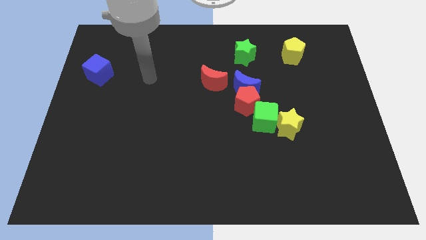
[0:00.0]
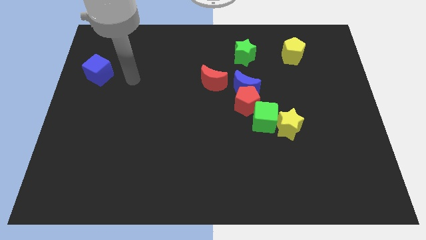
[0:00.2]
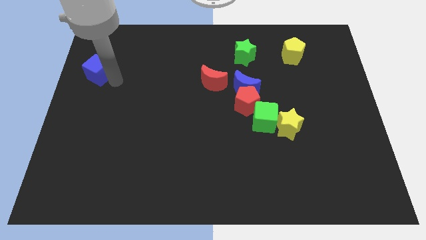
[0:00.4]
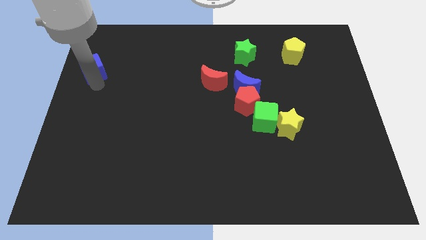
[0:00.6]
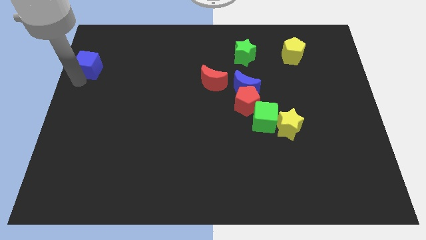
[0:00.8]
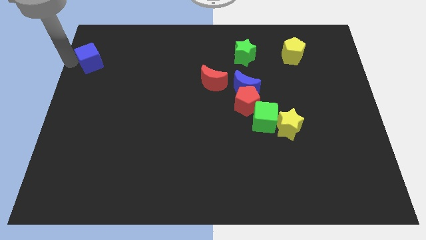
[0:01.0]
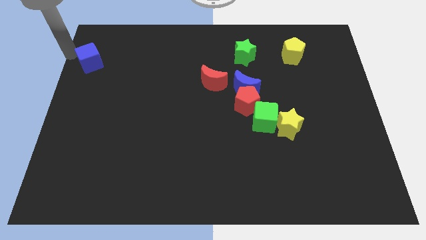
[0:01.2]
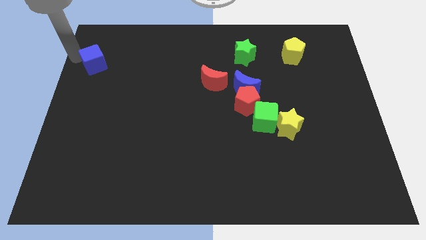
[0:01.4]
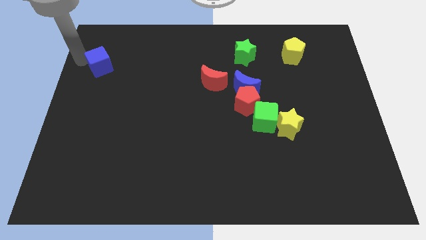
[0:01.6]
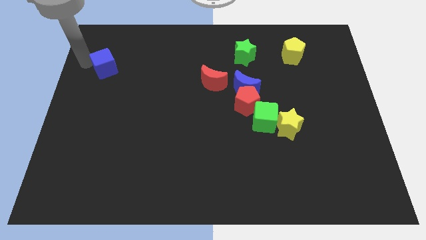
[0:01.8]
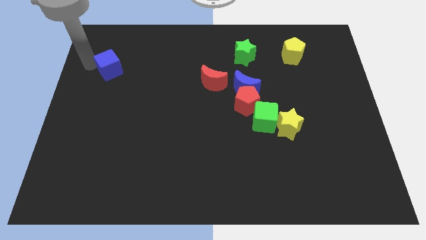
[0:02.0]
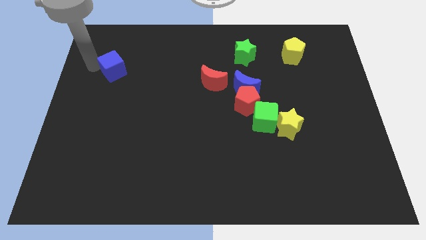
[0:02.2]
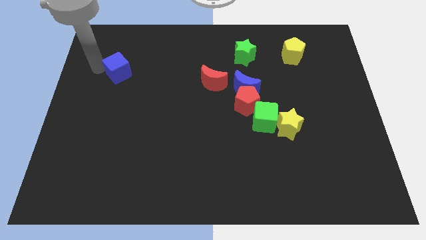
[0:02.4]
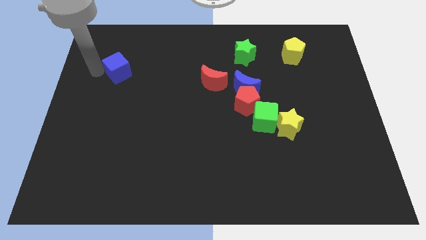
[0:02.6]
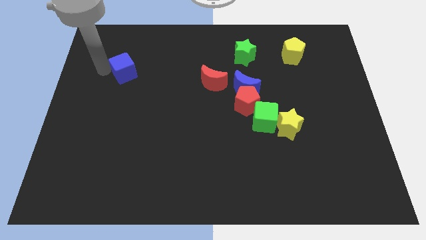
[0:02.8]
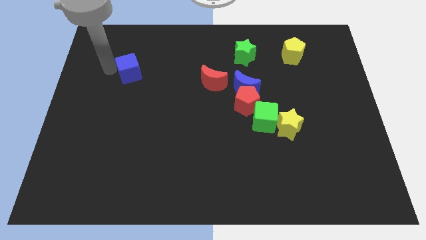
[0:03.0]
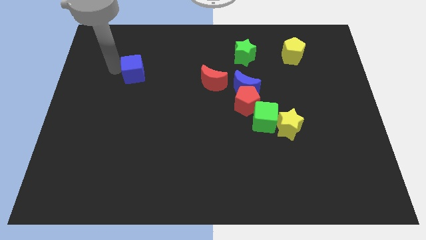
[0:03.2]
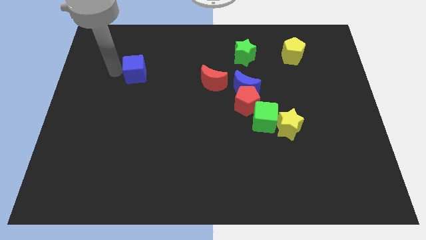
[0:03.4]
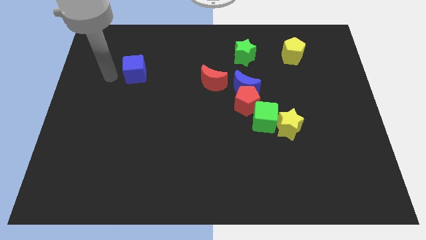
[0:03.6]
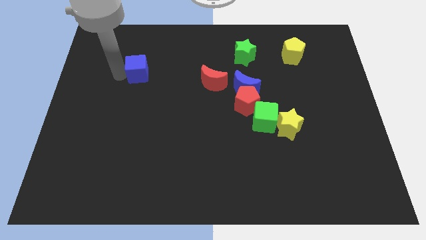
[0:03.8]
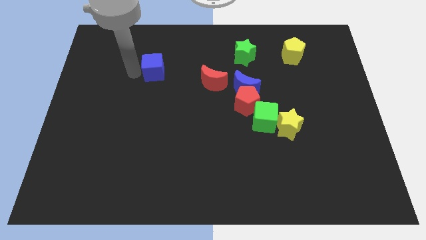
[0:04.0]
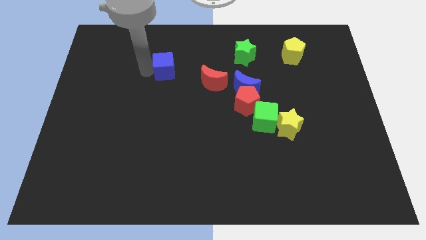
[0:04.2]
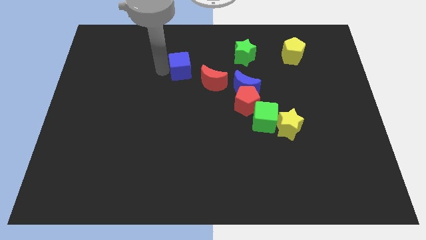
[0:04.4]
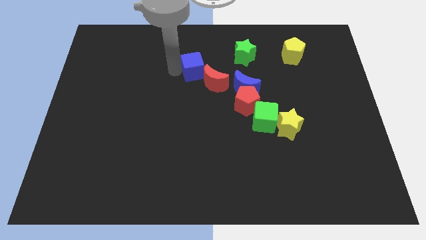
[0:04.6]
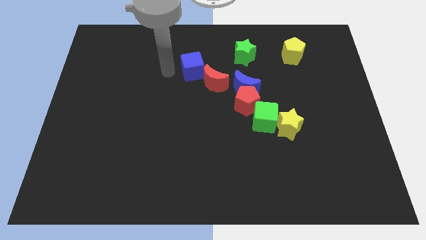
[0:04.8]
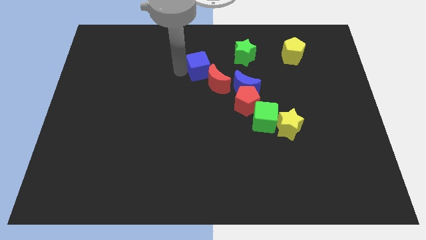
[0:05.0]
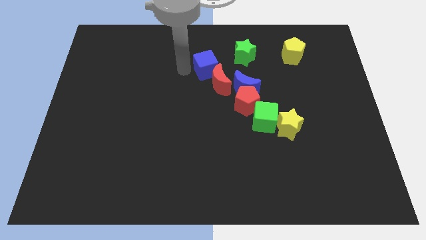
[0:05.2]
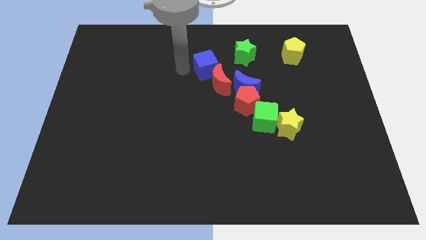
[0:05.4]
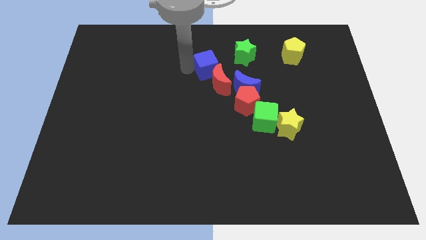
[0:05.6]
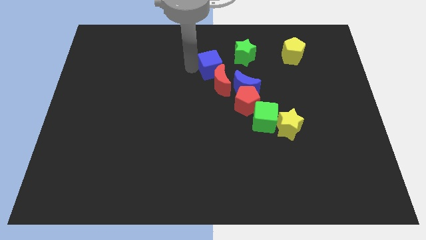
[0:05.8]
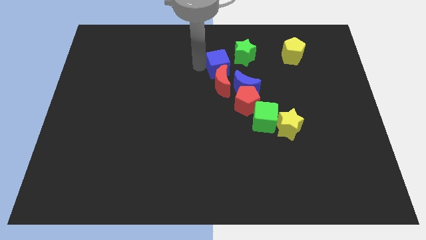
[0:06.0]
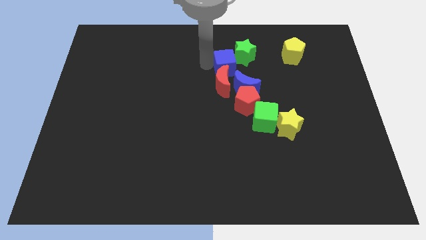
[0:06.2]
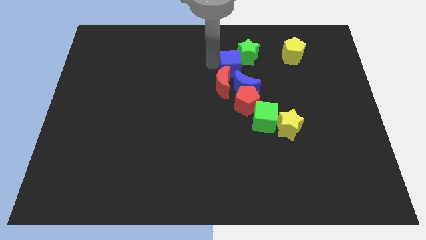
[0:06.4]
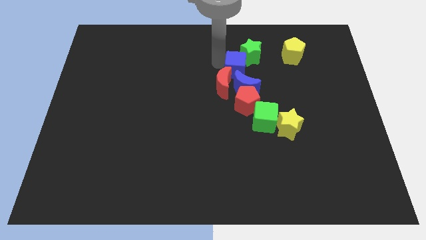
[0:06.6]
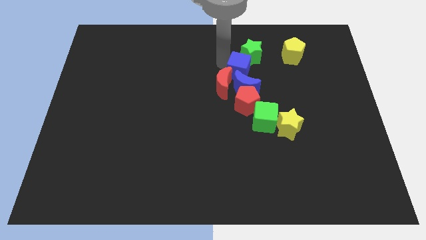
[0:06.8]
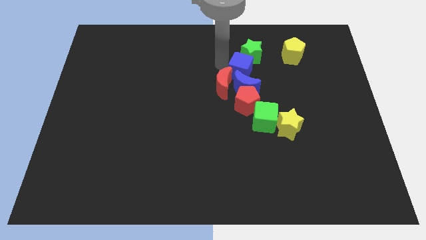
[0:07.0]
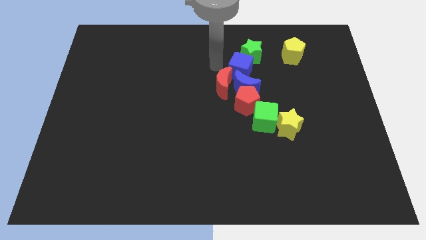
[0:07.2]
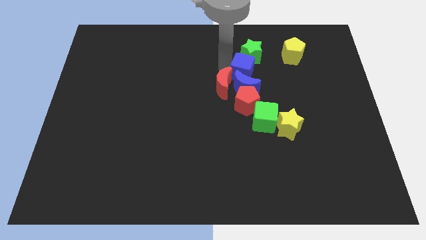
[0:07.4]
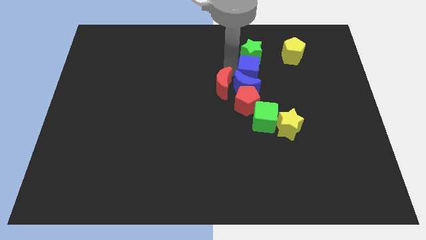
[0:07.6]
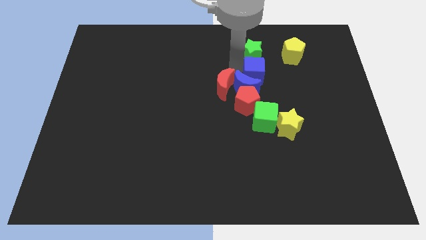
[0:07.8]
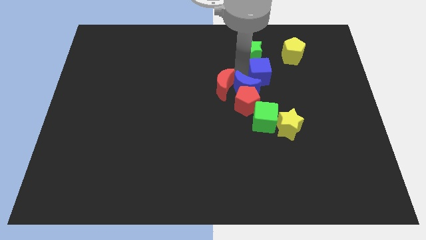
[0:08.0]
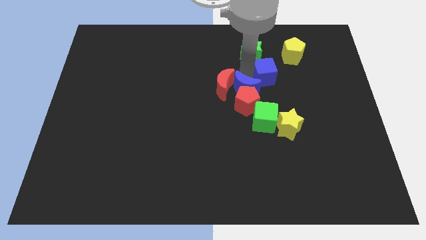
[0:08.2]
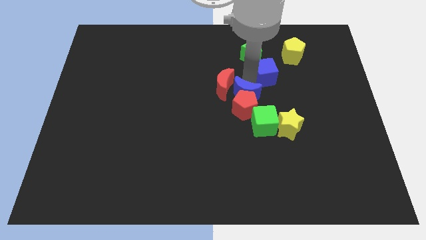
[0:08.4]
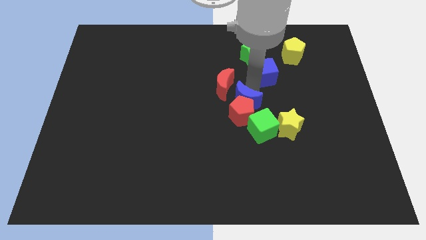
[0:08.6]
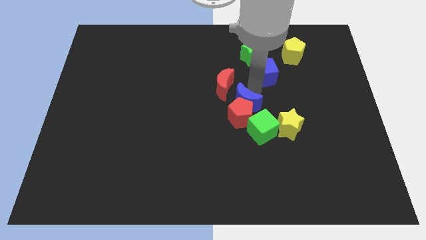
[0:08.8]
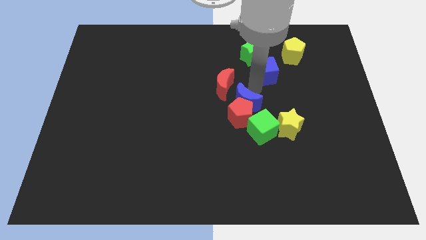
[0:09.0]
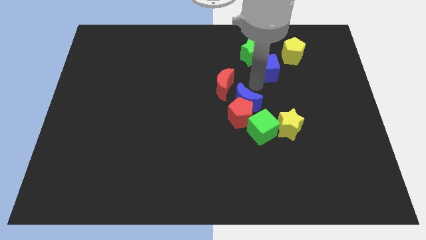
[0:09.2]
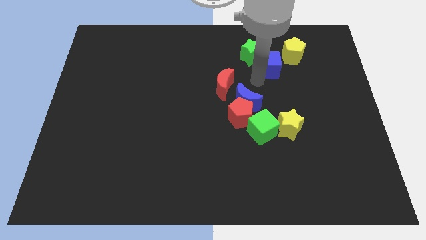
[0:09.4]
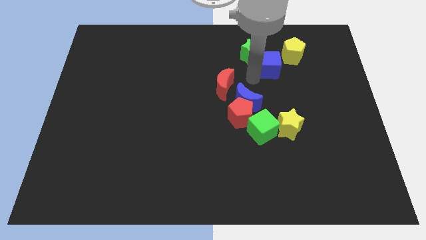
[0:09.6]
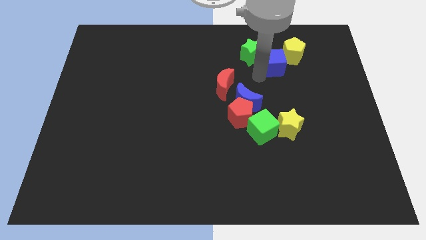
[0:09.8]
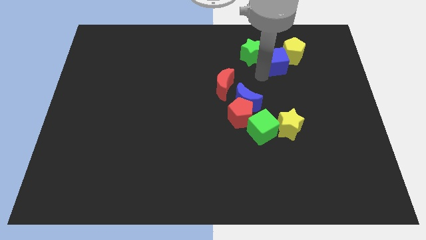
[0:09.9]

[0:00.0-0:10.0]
push the blue cube close to the yellow pentagon

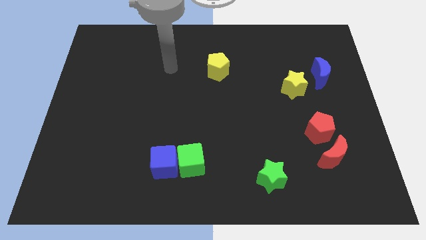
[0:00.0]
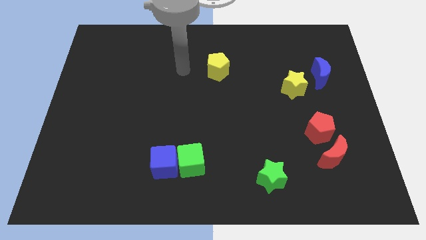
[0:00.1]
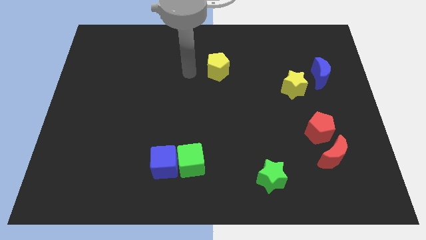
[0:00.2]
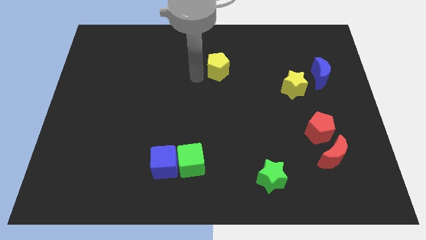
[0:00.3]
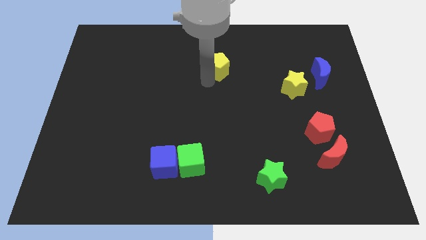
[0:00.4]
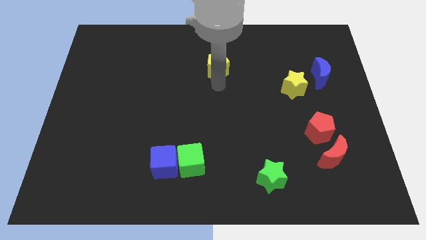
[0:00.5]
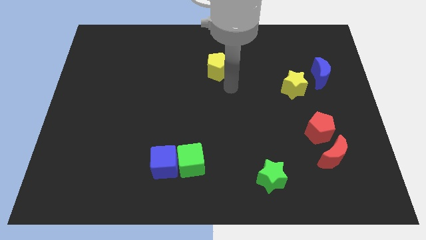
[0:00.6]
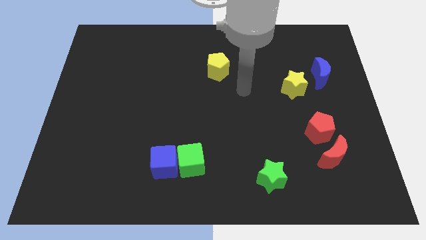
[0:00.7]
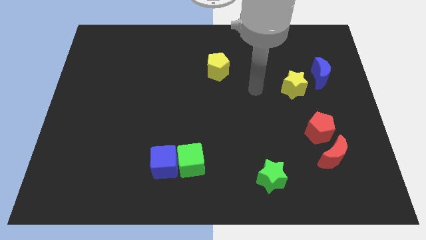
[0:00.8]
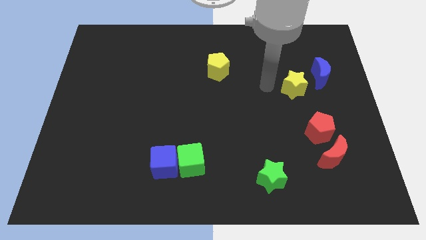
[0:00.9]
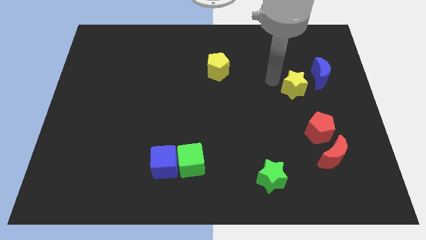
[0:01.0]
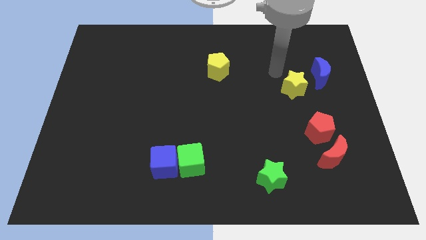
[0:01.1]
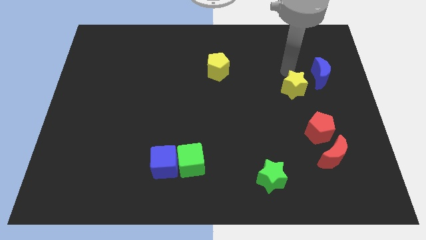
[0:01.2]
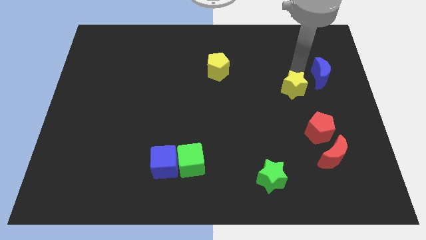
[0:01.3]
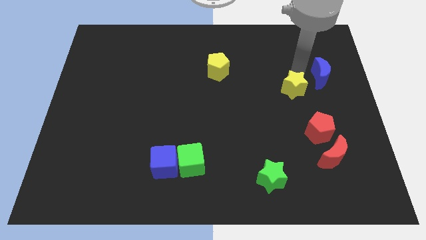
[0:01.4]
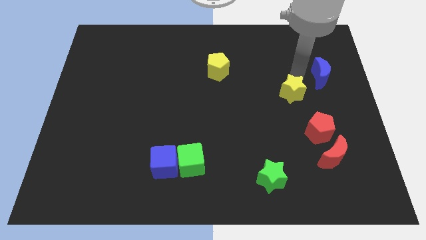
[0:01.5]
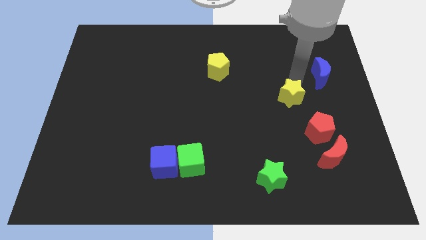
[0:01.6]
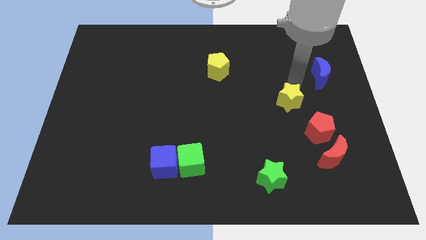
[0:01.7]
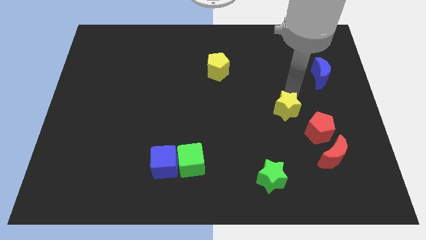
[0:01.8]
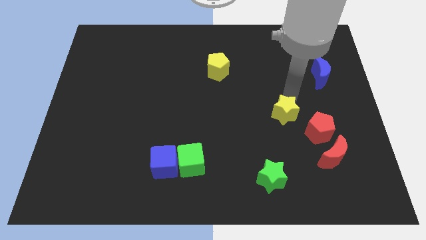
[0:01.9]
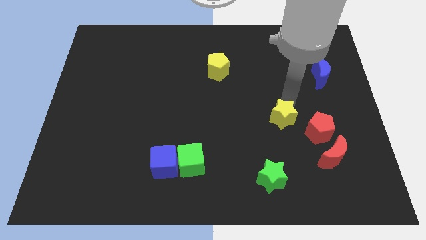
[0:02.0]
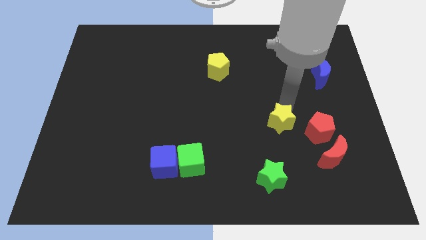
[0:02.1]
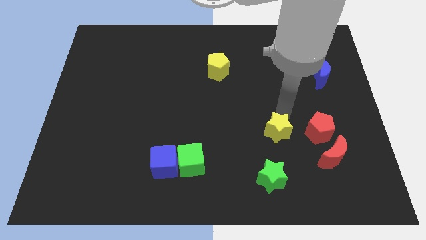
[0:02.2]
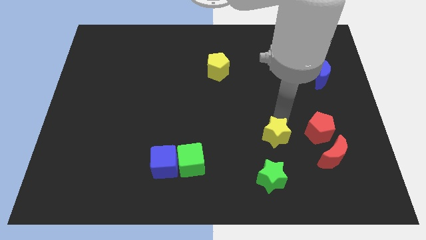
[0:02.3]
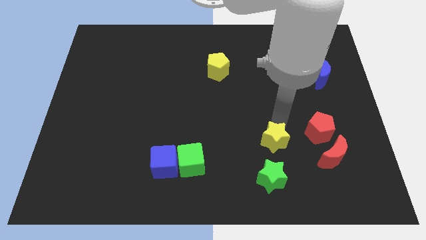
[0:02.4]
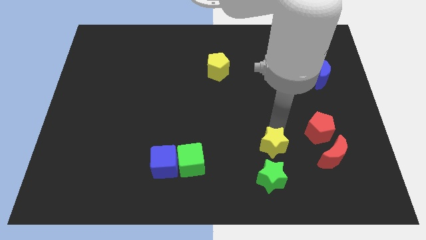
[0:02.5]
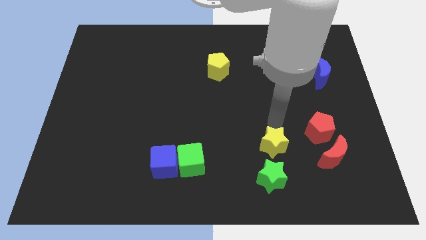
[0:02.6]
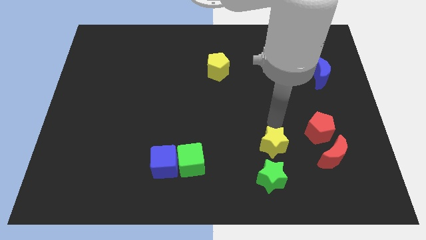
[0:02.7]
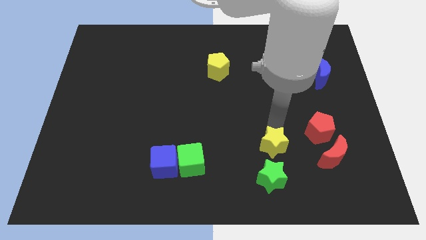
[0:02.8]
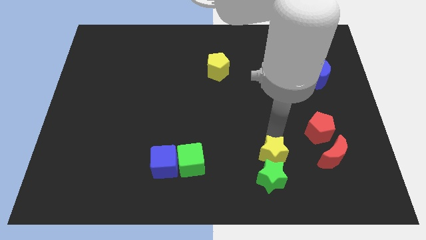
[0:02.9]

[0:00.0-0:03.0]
slide the yellow star to the green star
